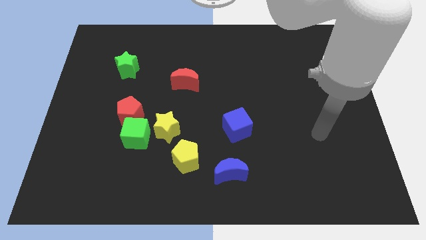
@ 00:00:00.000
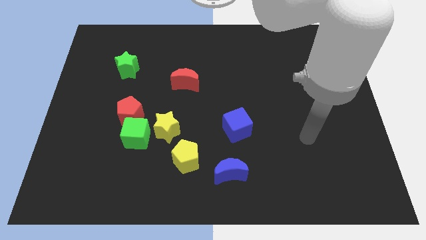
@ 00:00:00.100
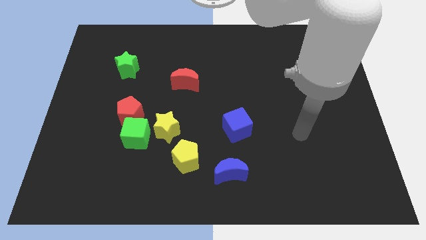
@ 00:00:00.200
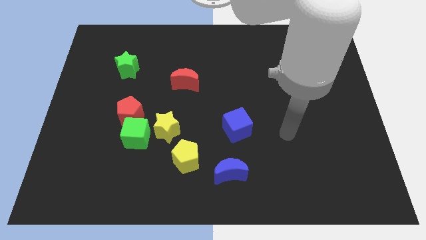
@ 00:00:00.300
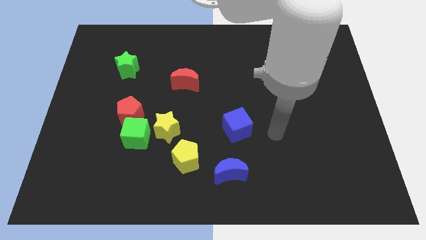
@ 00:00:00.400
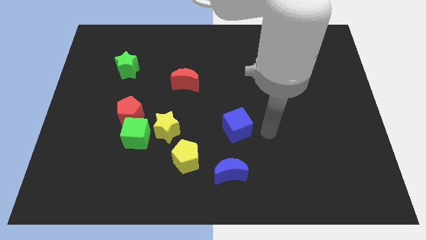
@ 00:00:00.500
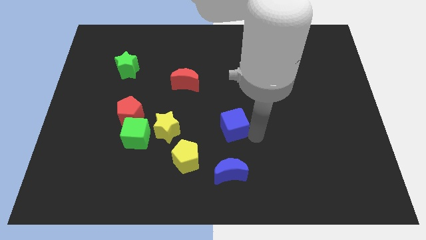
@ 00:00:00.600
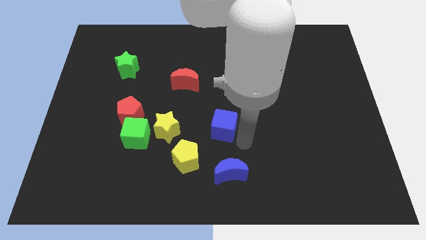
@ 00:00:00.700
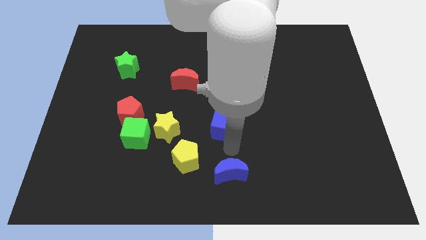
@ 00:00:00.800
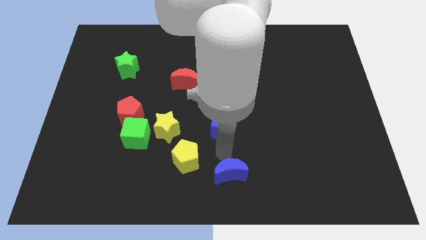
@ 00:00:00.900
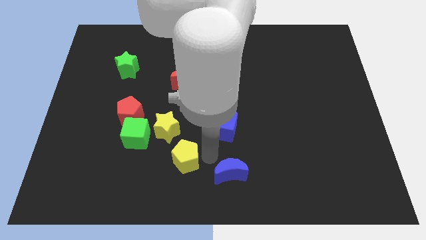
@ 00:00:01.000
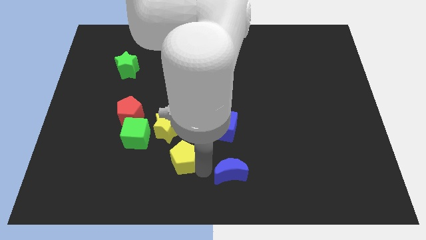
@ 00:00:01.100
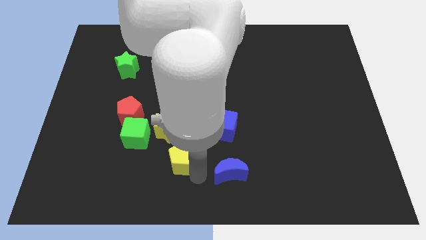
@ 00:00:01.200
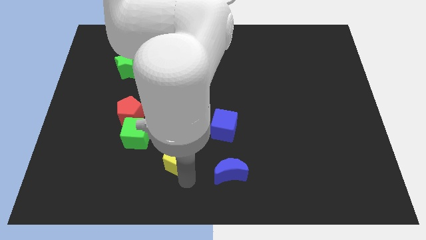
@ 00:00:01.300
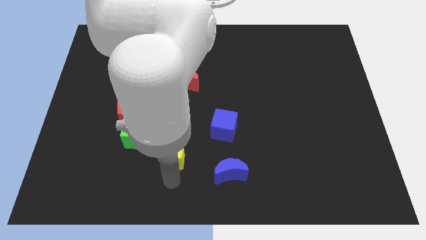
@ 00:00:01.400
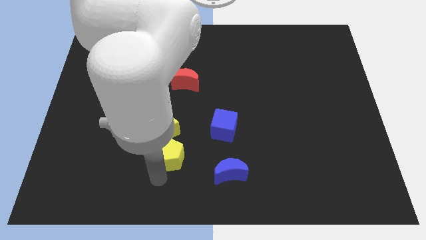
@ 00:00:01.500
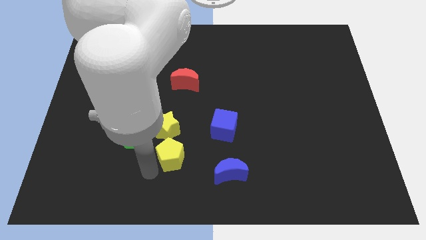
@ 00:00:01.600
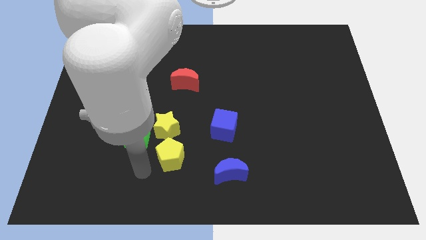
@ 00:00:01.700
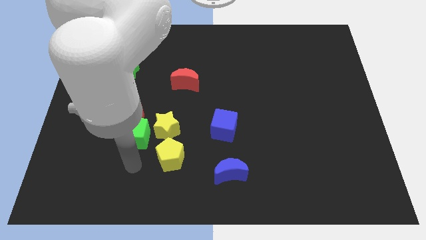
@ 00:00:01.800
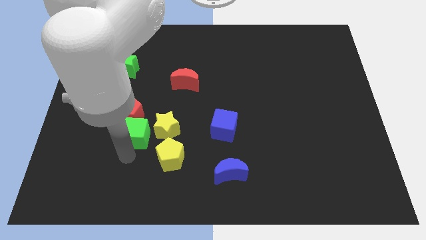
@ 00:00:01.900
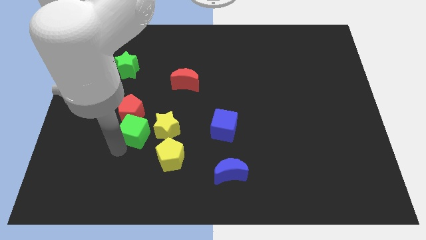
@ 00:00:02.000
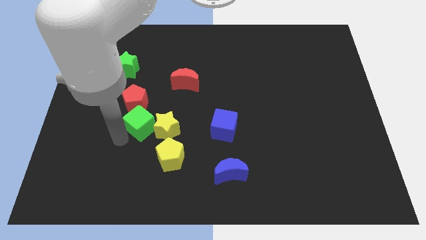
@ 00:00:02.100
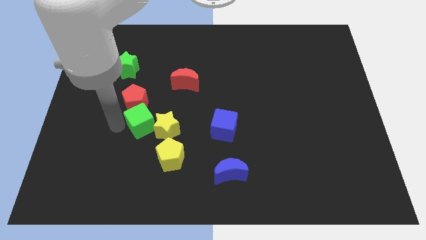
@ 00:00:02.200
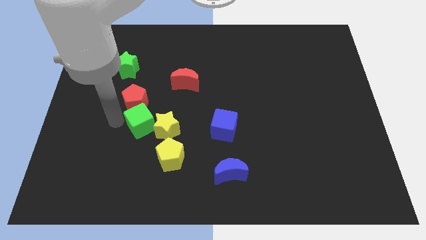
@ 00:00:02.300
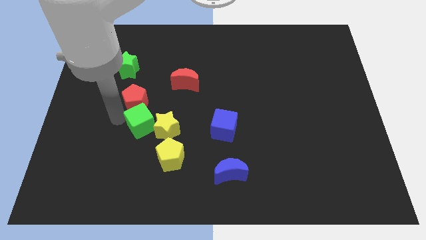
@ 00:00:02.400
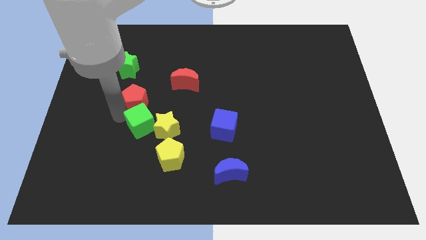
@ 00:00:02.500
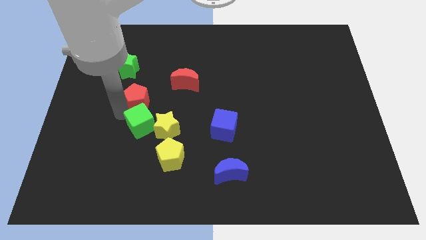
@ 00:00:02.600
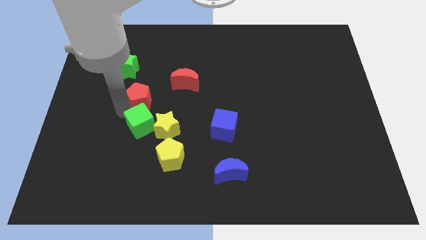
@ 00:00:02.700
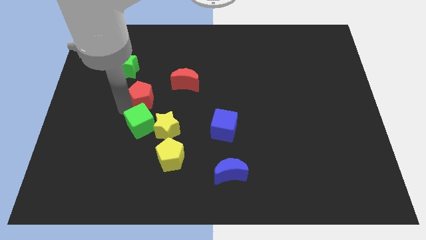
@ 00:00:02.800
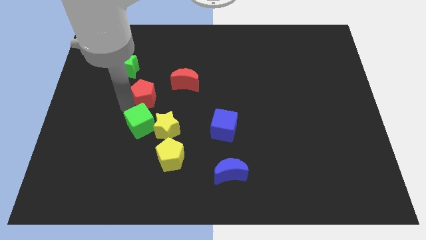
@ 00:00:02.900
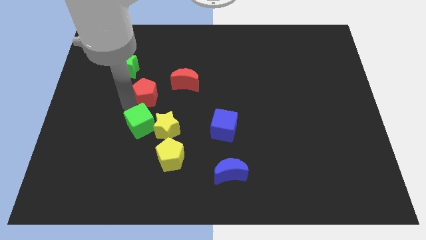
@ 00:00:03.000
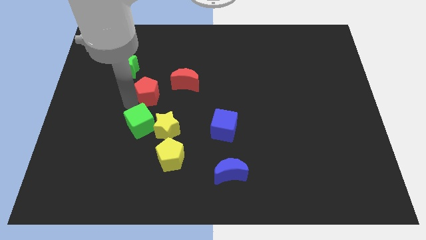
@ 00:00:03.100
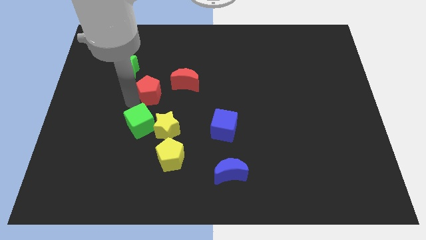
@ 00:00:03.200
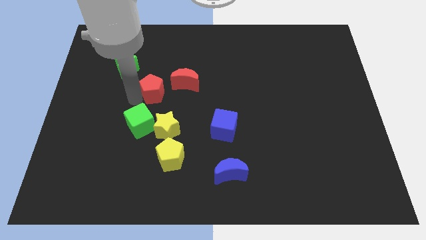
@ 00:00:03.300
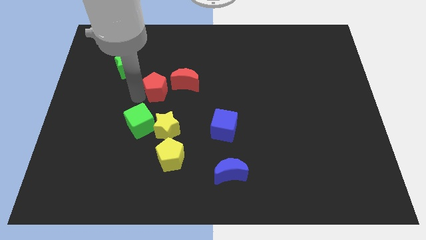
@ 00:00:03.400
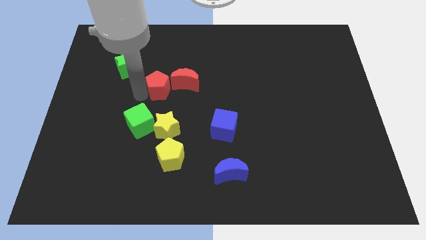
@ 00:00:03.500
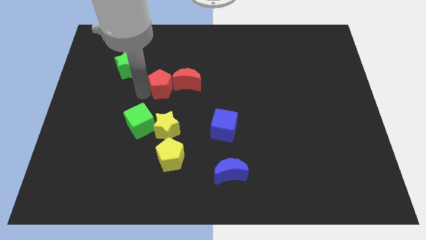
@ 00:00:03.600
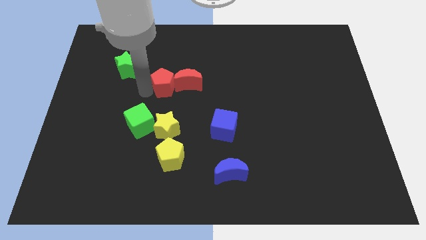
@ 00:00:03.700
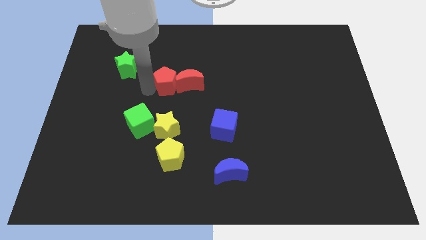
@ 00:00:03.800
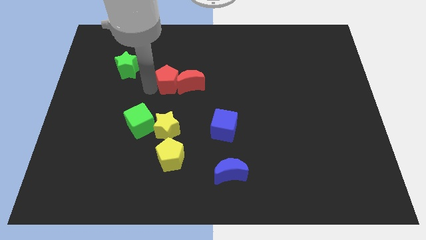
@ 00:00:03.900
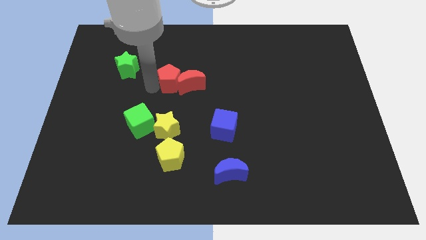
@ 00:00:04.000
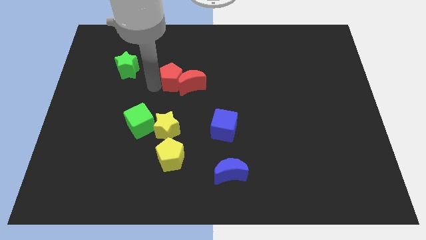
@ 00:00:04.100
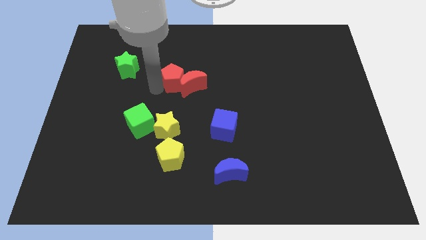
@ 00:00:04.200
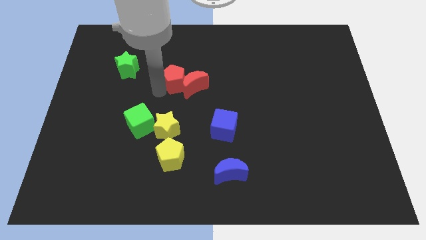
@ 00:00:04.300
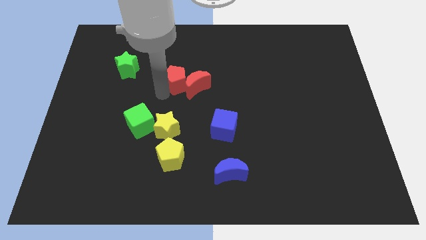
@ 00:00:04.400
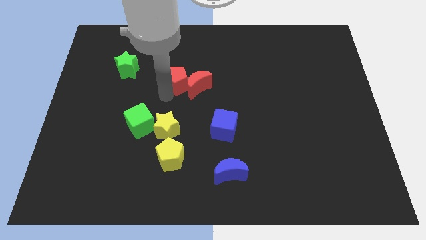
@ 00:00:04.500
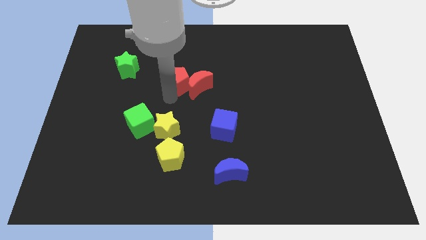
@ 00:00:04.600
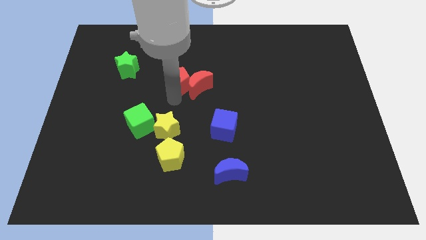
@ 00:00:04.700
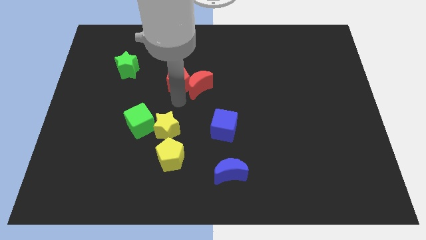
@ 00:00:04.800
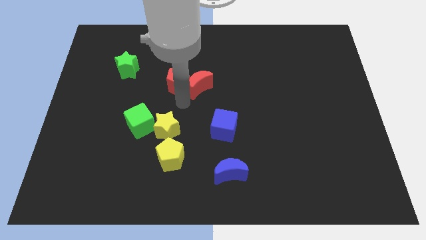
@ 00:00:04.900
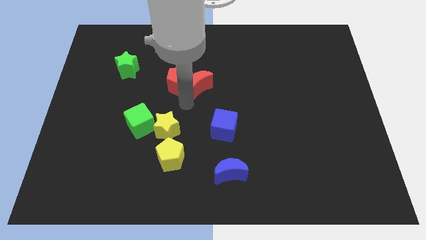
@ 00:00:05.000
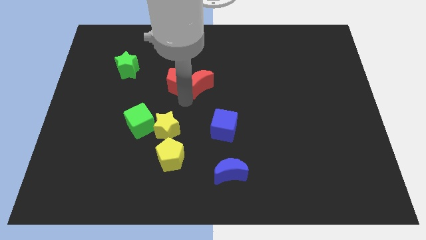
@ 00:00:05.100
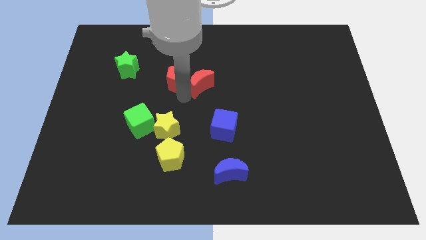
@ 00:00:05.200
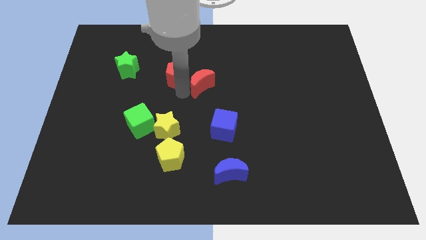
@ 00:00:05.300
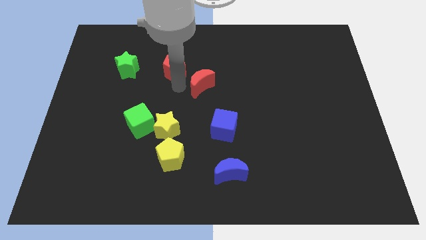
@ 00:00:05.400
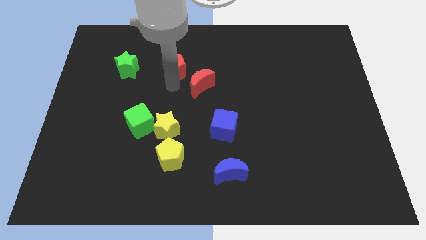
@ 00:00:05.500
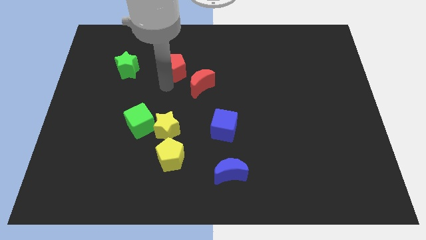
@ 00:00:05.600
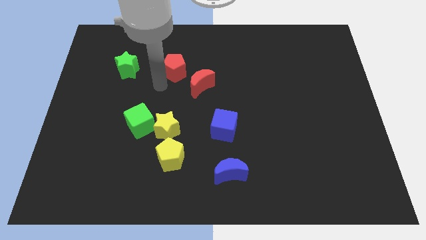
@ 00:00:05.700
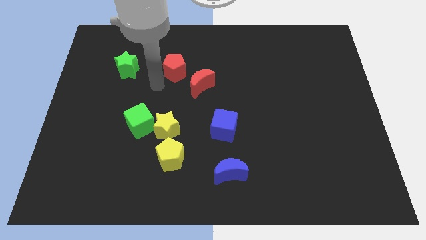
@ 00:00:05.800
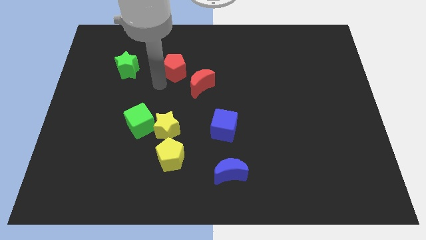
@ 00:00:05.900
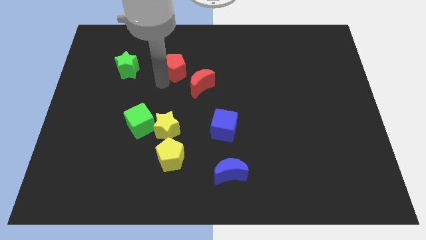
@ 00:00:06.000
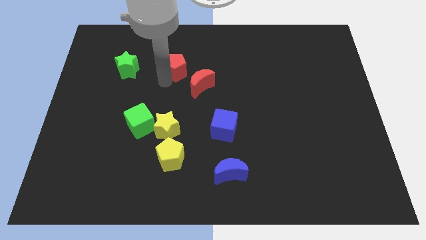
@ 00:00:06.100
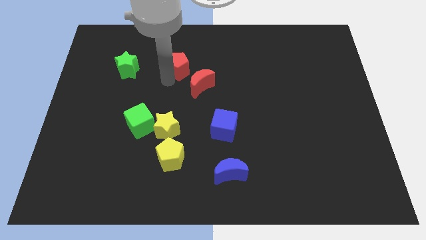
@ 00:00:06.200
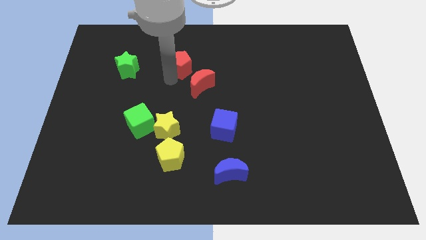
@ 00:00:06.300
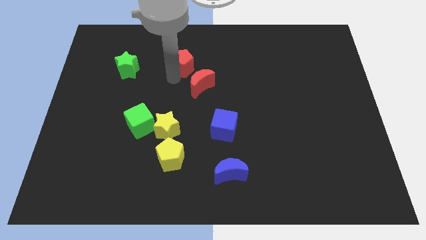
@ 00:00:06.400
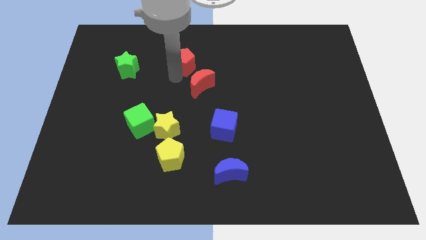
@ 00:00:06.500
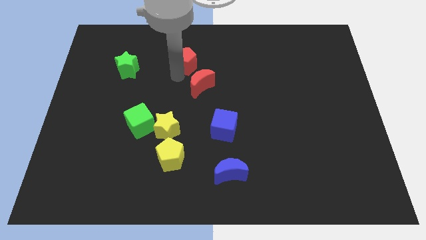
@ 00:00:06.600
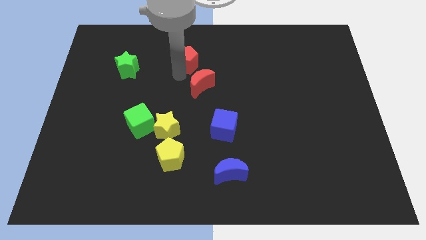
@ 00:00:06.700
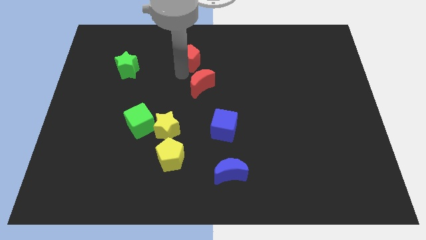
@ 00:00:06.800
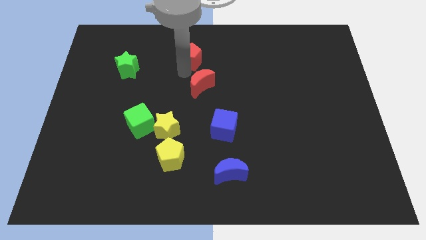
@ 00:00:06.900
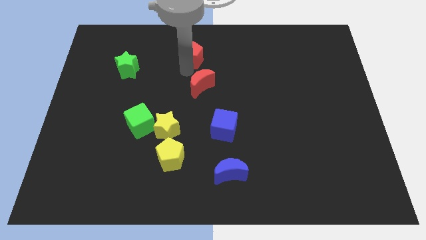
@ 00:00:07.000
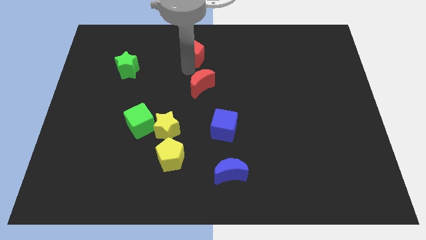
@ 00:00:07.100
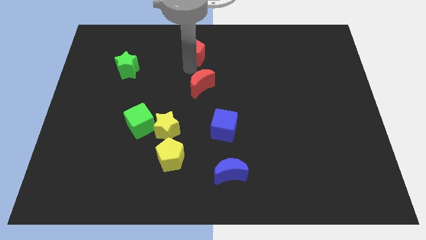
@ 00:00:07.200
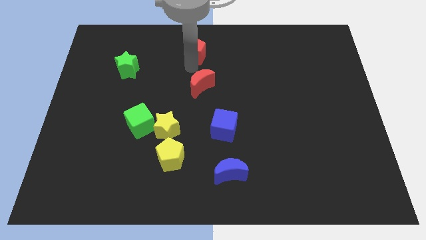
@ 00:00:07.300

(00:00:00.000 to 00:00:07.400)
move the red pentagon to the towards your base
